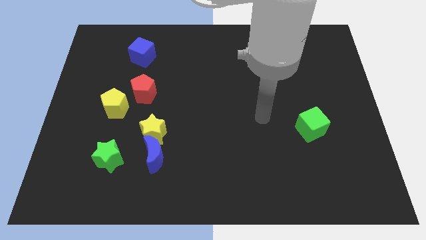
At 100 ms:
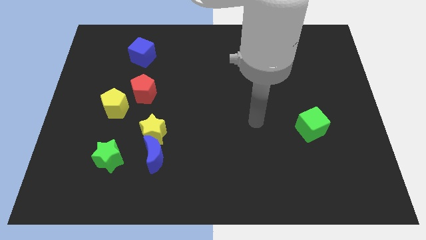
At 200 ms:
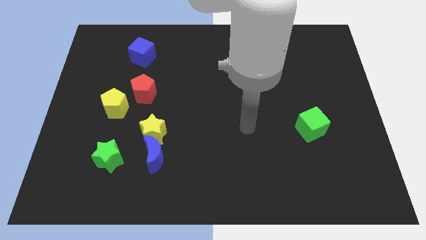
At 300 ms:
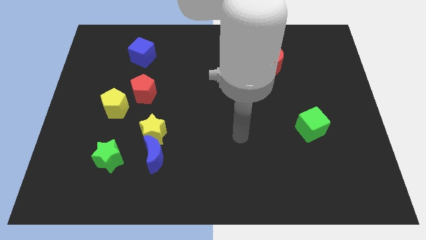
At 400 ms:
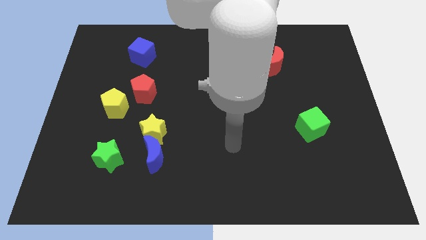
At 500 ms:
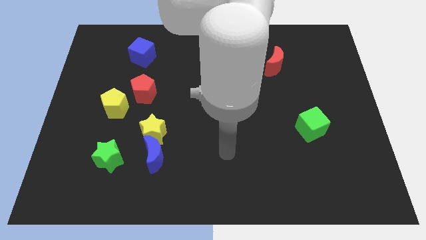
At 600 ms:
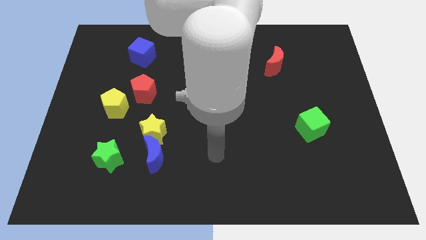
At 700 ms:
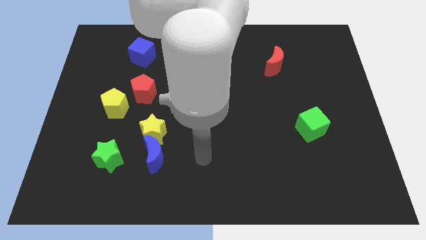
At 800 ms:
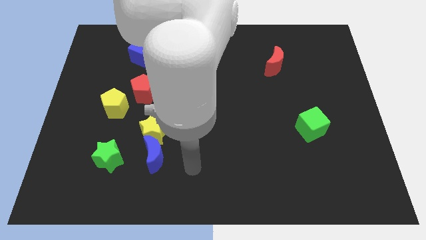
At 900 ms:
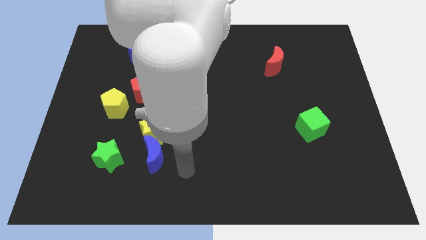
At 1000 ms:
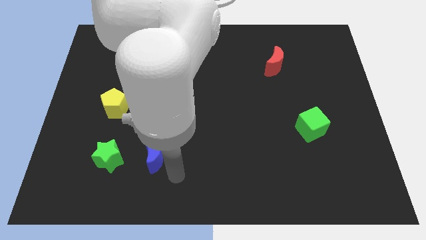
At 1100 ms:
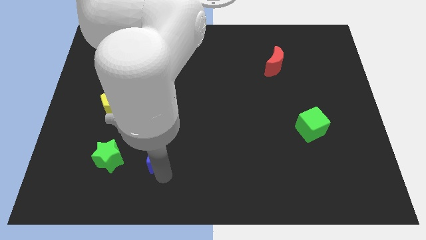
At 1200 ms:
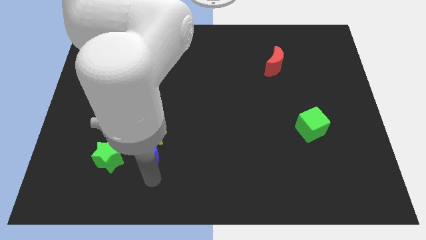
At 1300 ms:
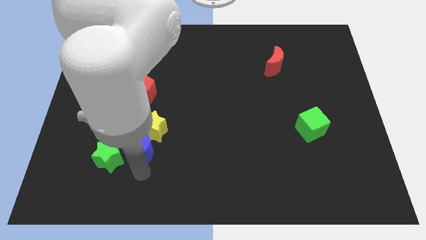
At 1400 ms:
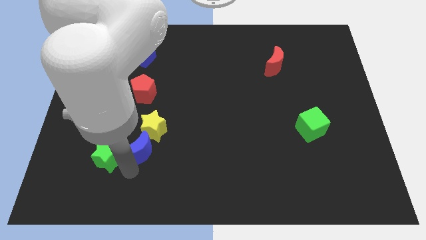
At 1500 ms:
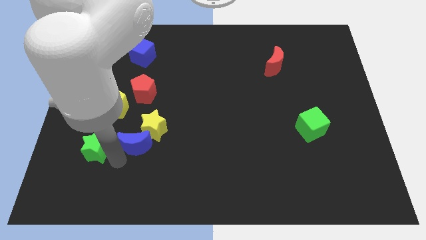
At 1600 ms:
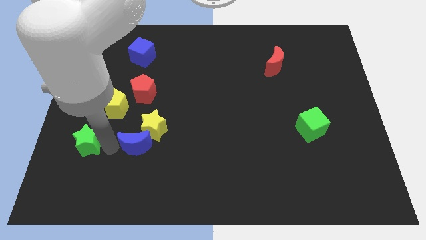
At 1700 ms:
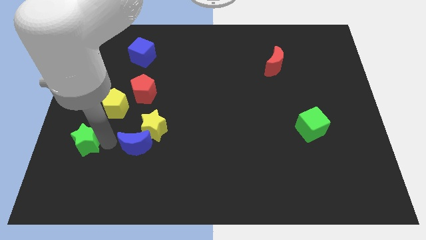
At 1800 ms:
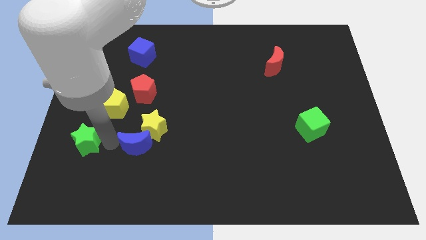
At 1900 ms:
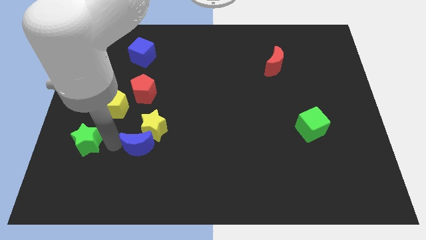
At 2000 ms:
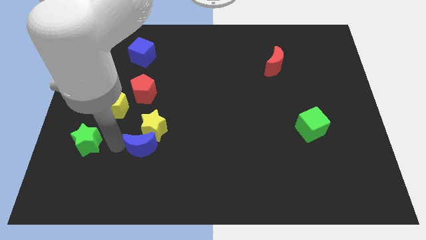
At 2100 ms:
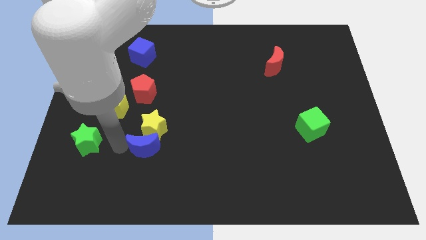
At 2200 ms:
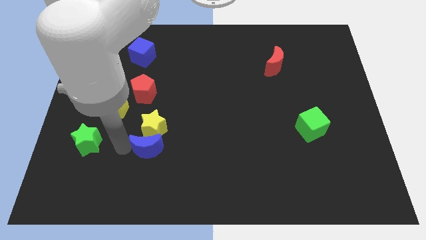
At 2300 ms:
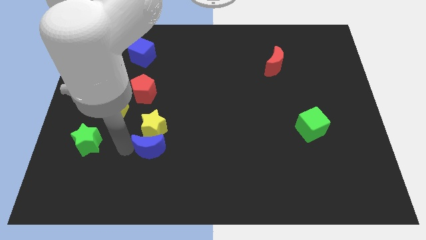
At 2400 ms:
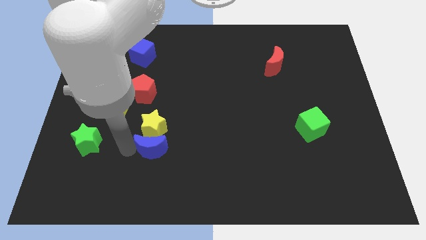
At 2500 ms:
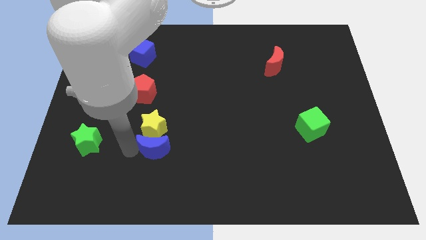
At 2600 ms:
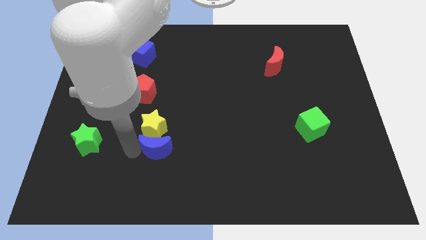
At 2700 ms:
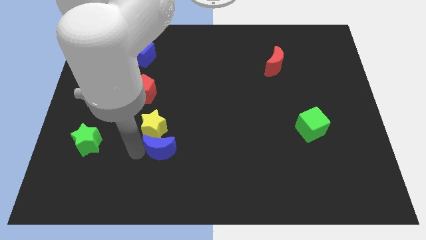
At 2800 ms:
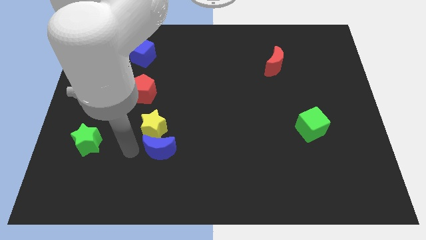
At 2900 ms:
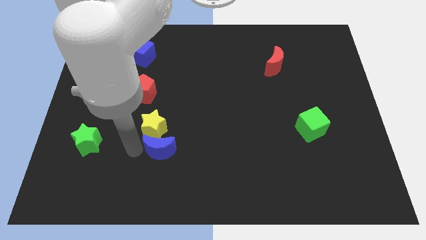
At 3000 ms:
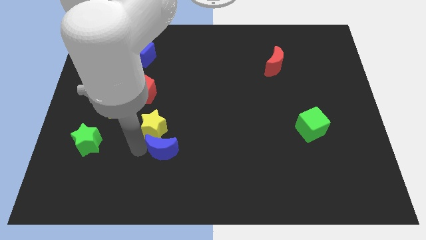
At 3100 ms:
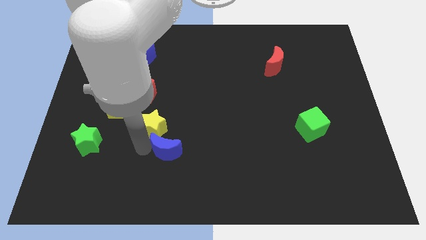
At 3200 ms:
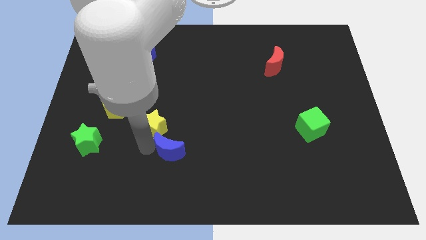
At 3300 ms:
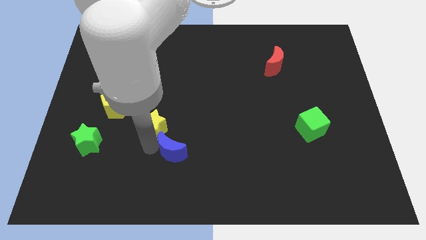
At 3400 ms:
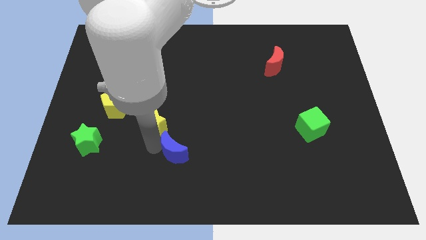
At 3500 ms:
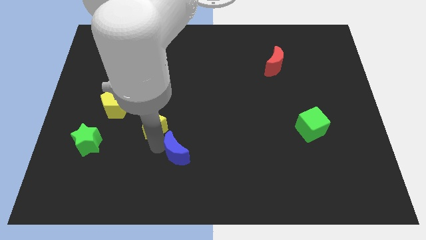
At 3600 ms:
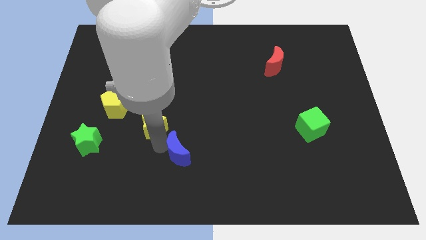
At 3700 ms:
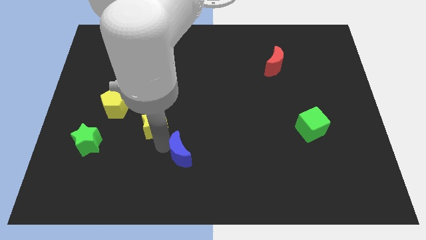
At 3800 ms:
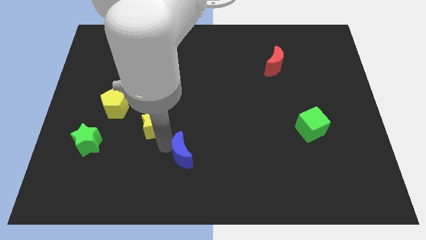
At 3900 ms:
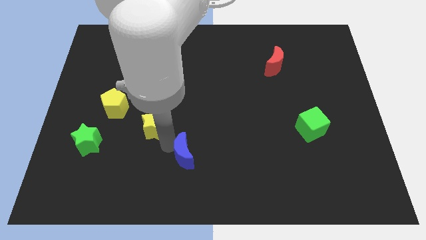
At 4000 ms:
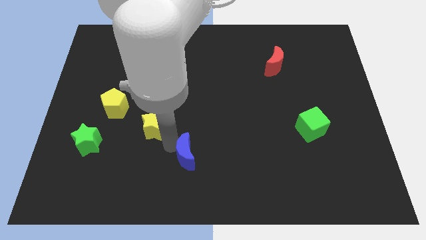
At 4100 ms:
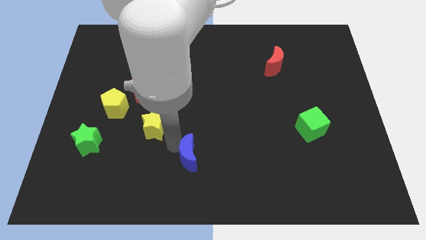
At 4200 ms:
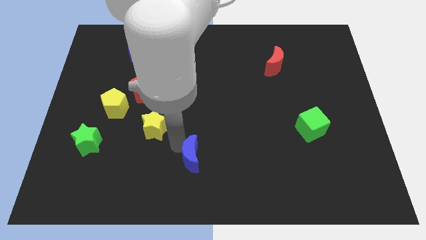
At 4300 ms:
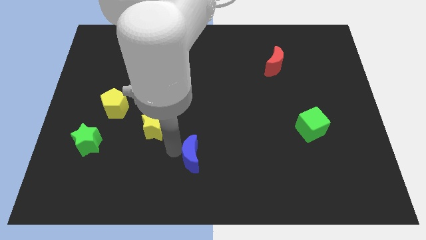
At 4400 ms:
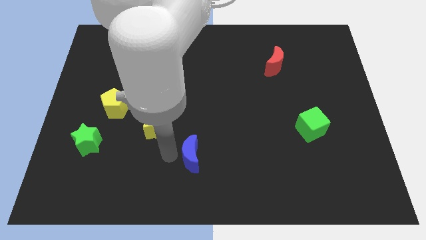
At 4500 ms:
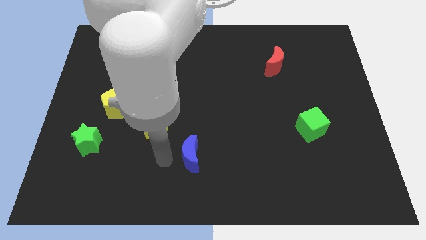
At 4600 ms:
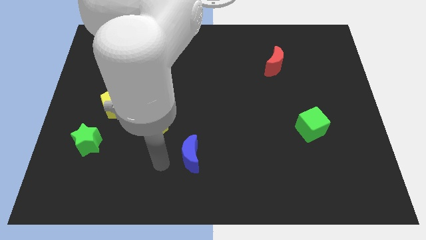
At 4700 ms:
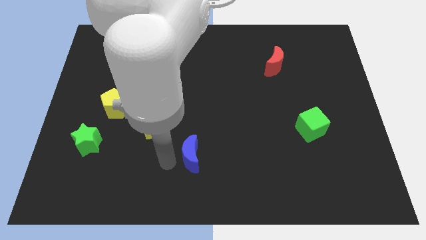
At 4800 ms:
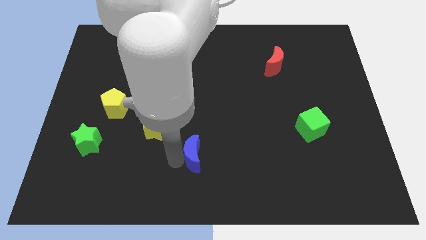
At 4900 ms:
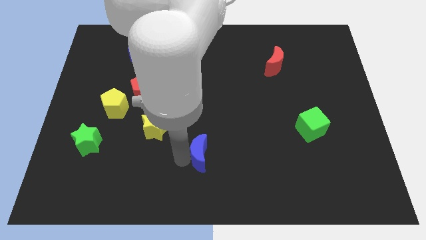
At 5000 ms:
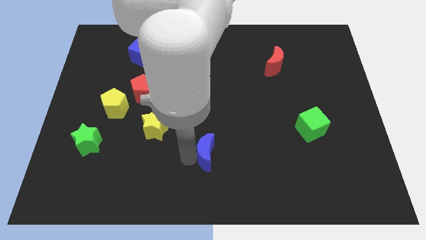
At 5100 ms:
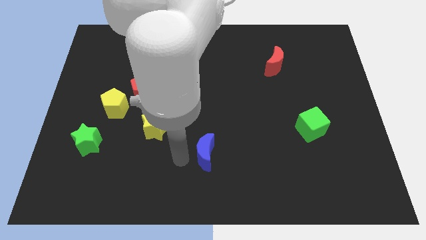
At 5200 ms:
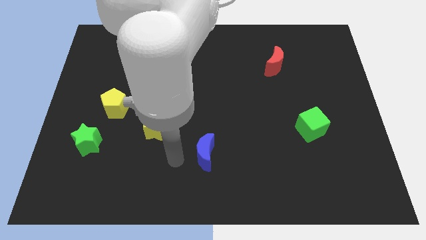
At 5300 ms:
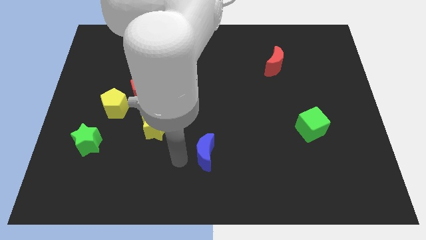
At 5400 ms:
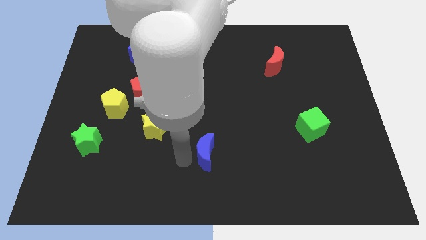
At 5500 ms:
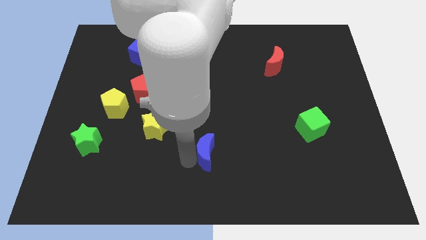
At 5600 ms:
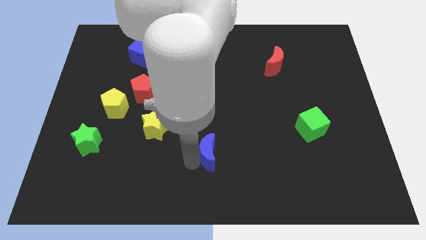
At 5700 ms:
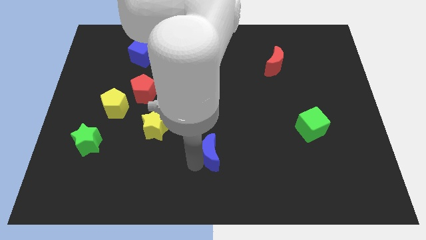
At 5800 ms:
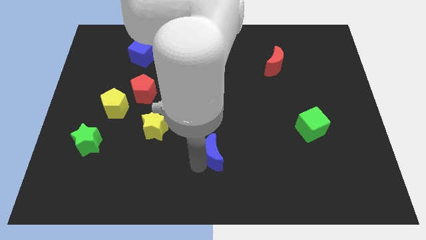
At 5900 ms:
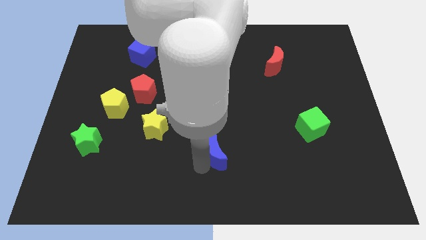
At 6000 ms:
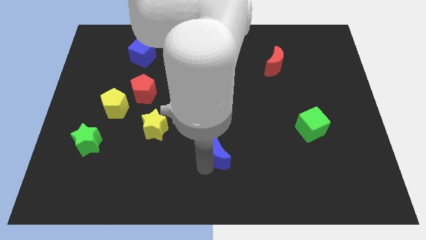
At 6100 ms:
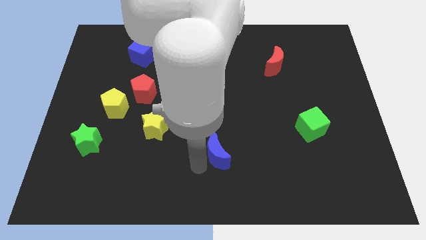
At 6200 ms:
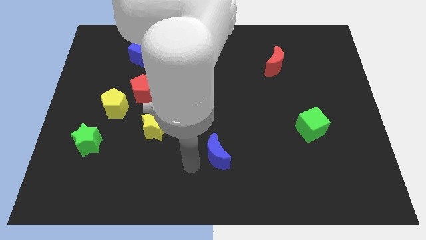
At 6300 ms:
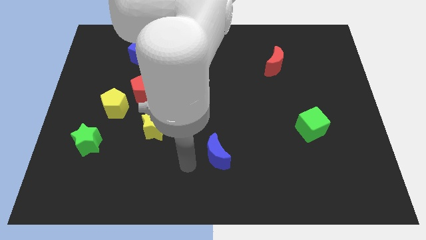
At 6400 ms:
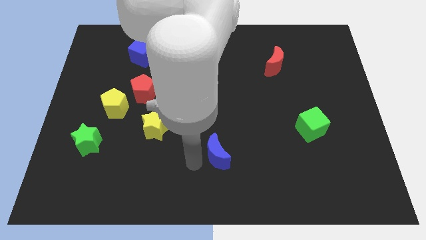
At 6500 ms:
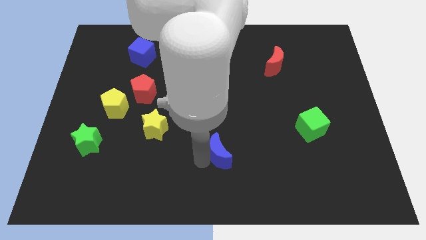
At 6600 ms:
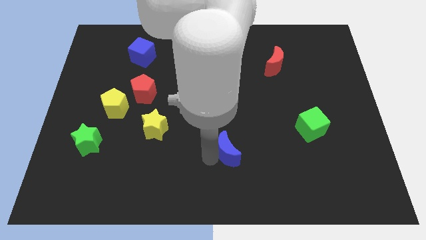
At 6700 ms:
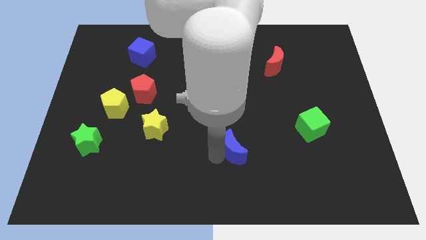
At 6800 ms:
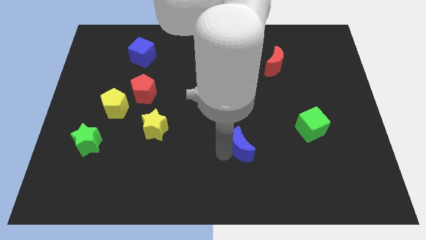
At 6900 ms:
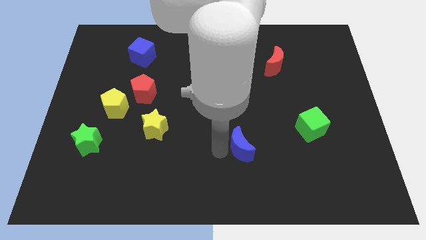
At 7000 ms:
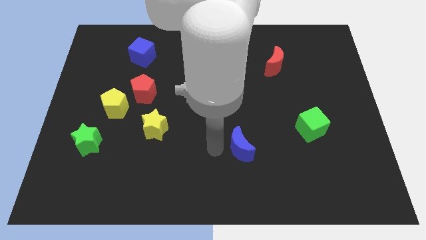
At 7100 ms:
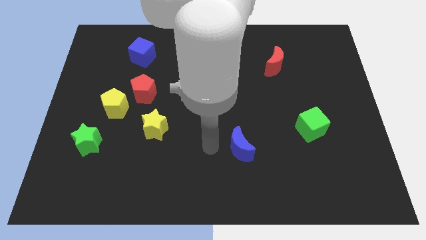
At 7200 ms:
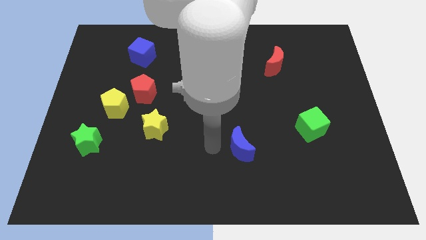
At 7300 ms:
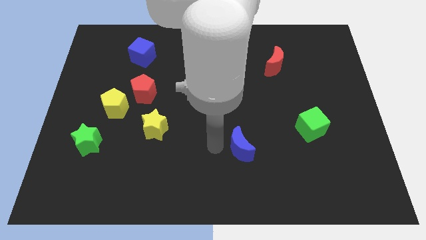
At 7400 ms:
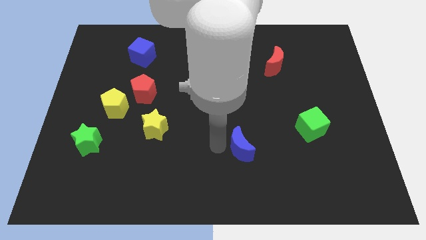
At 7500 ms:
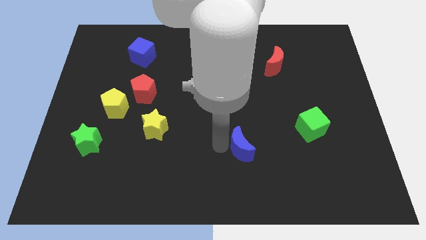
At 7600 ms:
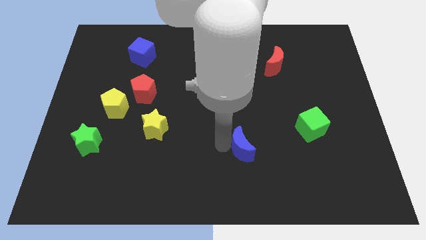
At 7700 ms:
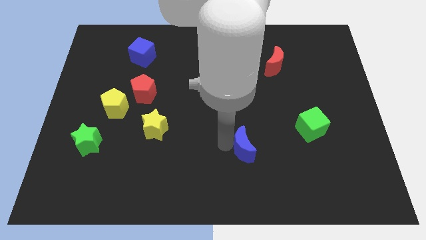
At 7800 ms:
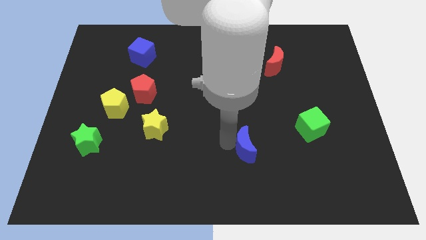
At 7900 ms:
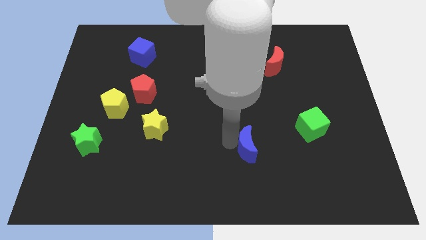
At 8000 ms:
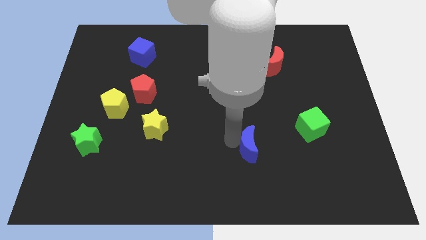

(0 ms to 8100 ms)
push the blue moon to the right
